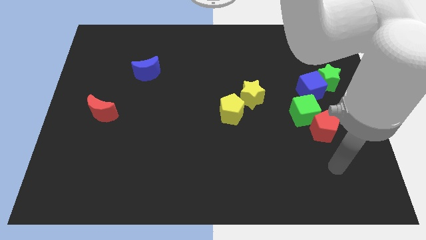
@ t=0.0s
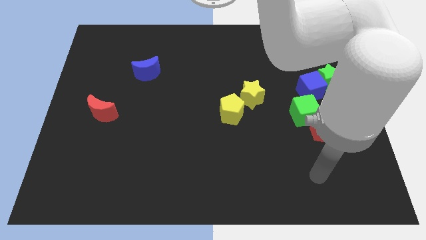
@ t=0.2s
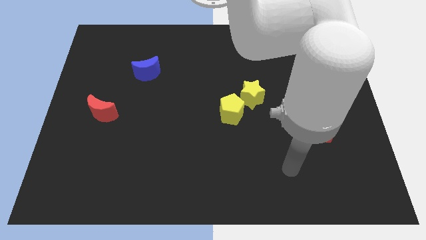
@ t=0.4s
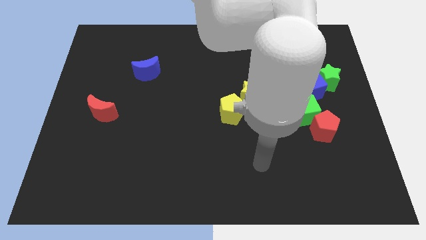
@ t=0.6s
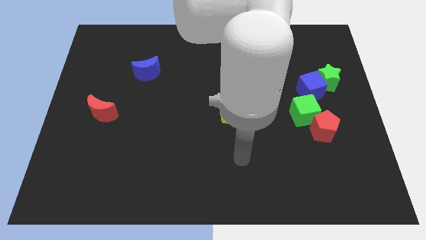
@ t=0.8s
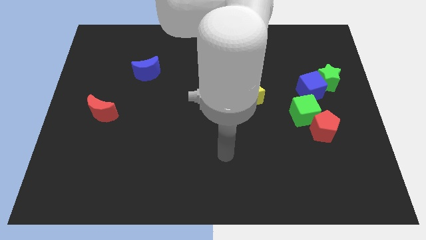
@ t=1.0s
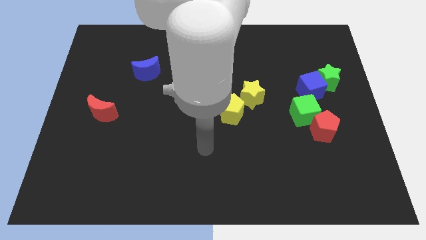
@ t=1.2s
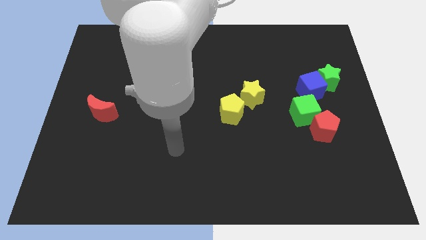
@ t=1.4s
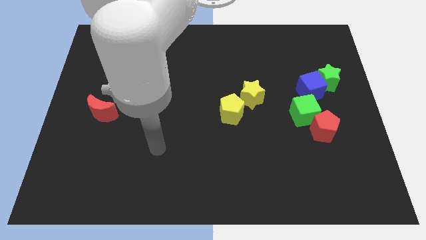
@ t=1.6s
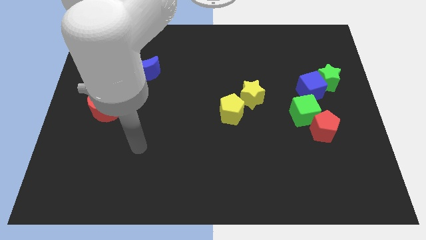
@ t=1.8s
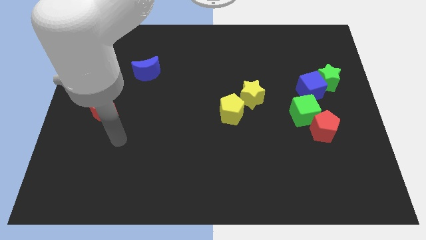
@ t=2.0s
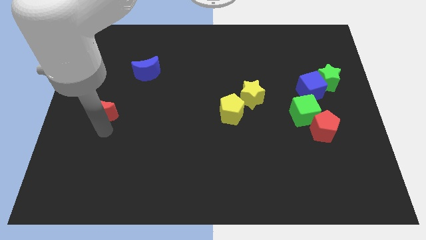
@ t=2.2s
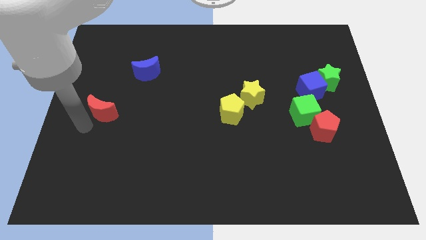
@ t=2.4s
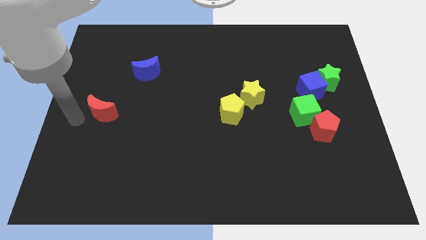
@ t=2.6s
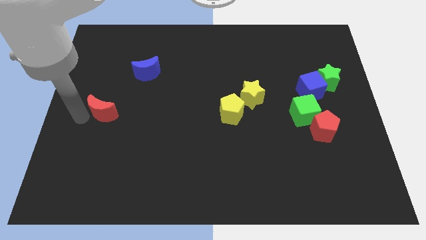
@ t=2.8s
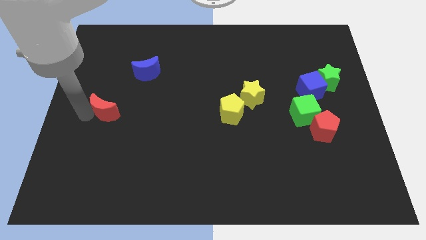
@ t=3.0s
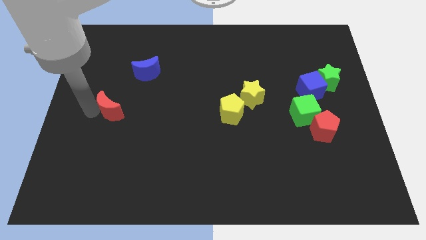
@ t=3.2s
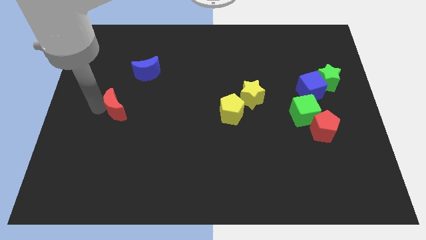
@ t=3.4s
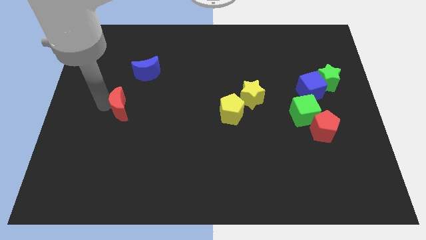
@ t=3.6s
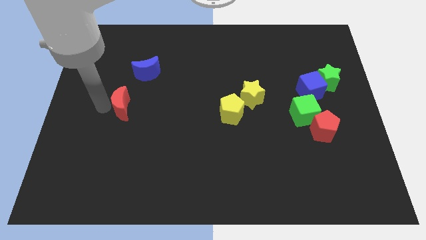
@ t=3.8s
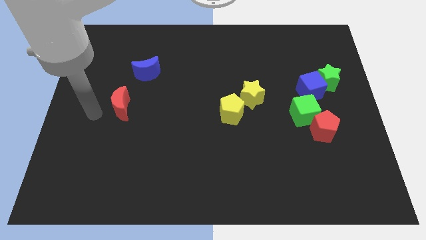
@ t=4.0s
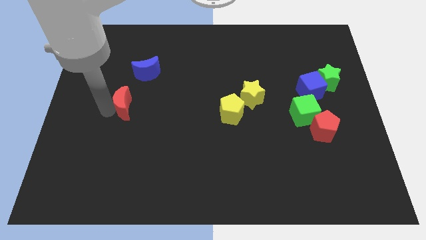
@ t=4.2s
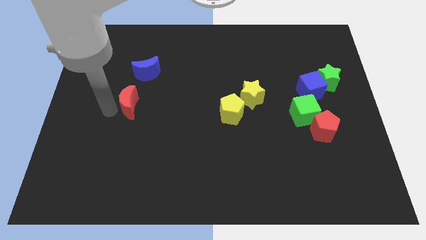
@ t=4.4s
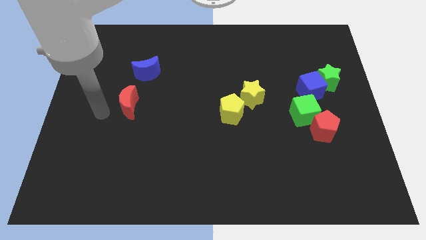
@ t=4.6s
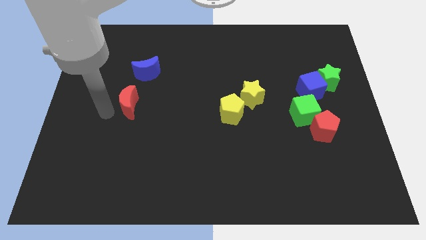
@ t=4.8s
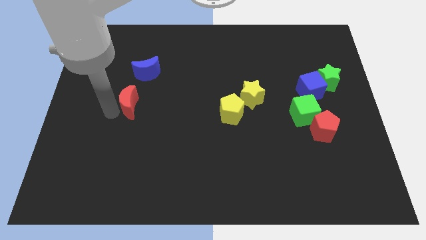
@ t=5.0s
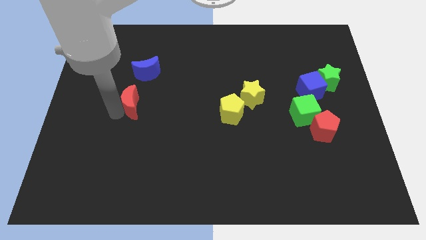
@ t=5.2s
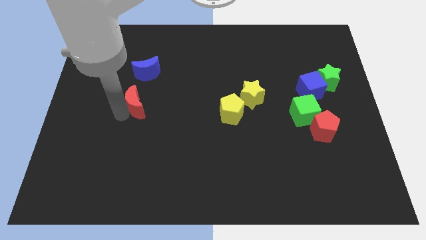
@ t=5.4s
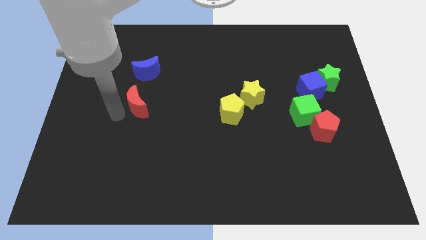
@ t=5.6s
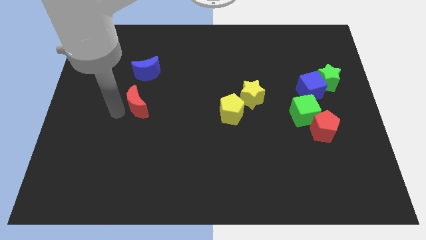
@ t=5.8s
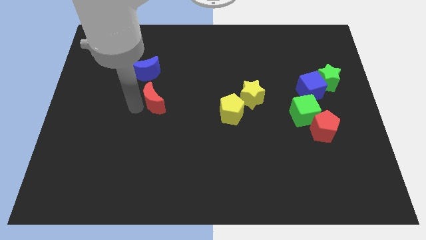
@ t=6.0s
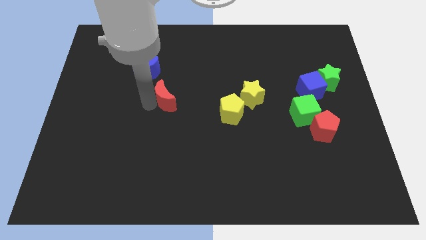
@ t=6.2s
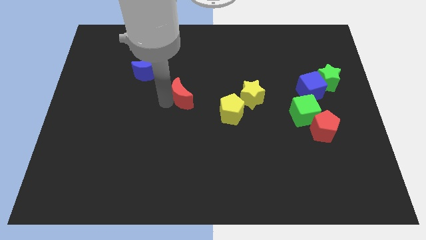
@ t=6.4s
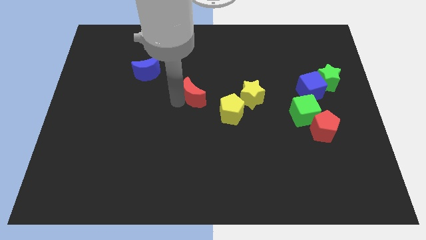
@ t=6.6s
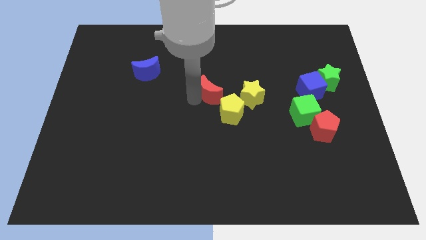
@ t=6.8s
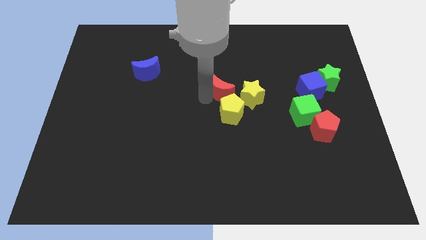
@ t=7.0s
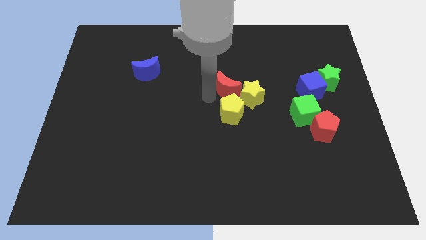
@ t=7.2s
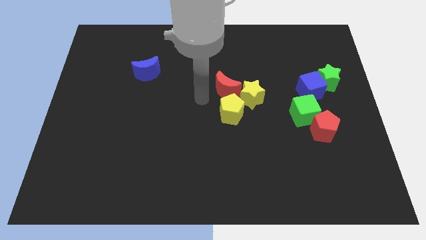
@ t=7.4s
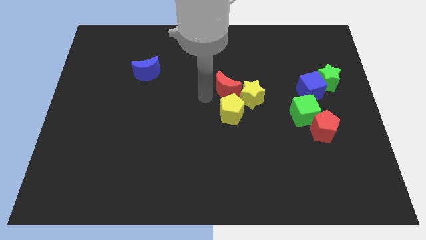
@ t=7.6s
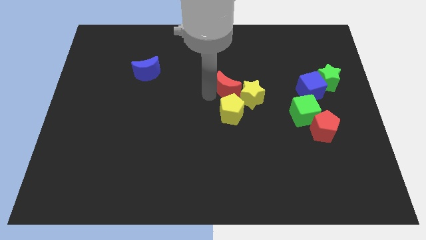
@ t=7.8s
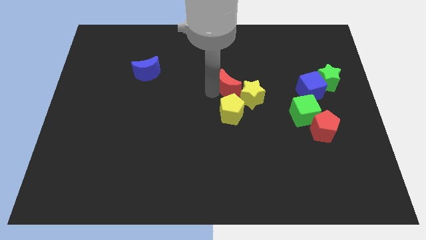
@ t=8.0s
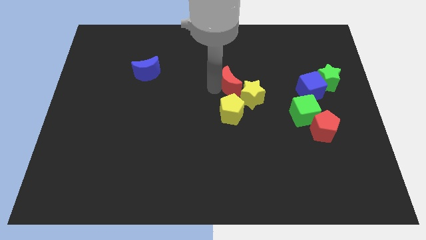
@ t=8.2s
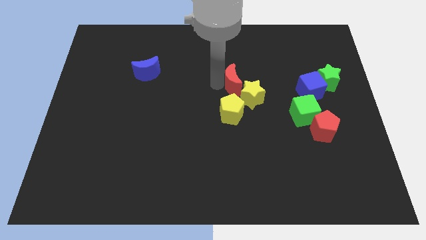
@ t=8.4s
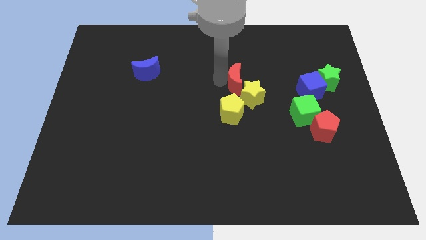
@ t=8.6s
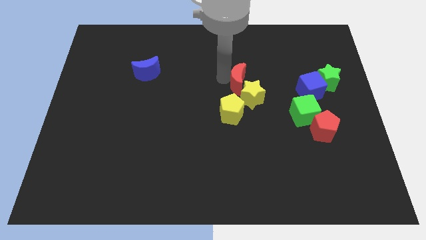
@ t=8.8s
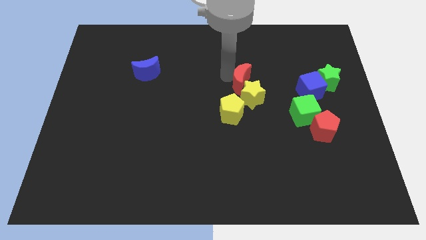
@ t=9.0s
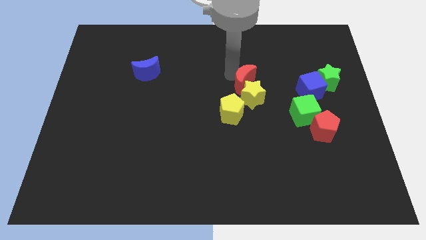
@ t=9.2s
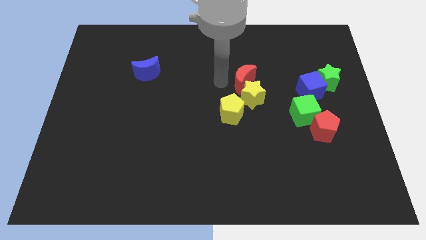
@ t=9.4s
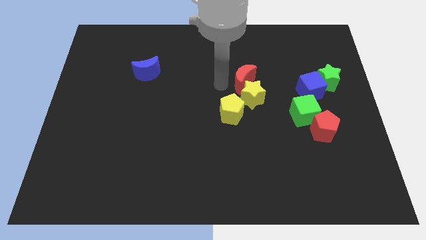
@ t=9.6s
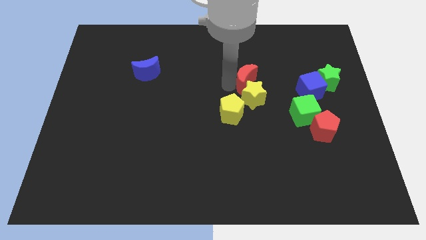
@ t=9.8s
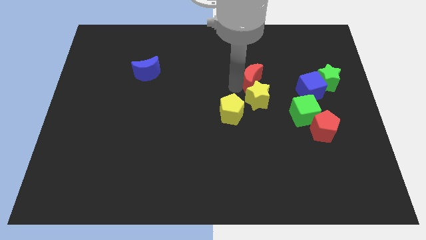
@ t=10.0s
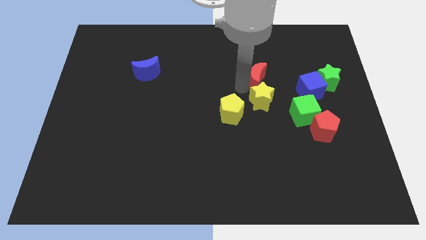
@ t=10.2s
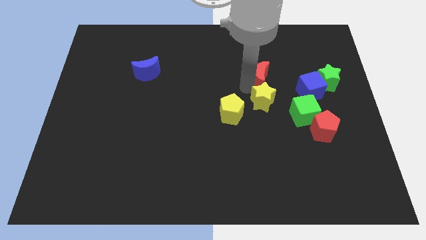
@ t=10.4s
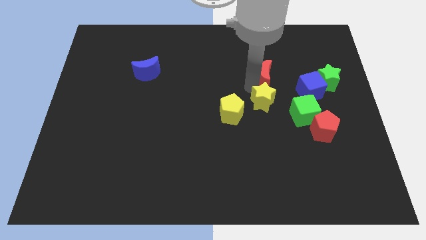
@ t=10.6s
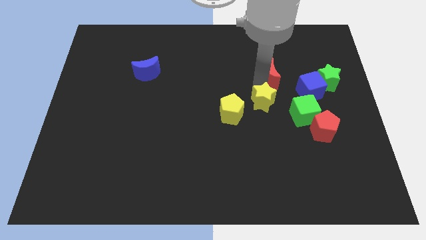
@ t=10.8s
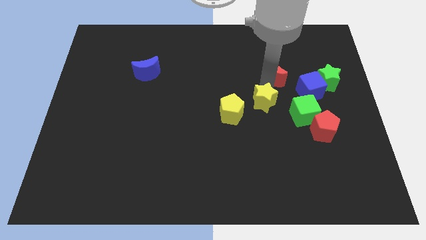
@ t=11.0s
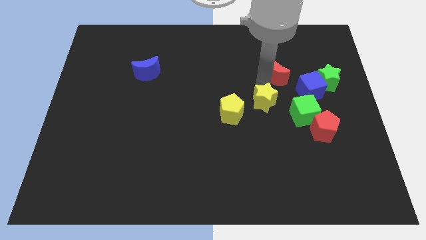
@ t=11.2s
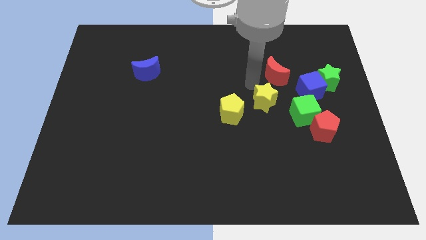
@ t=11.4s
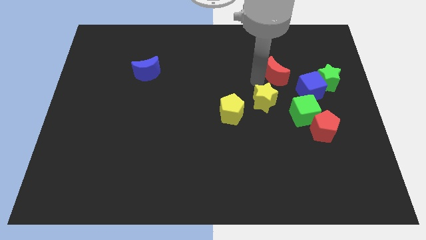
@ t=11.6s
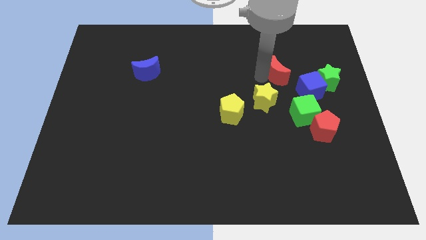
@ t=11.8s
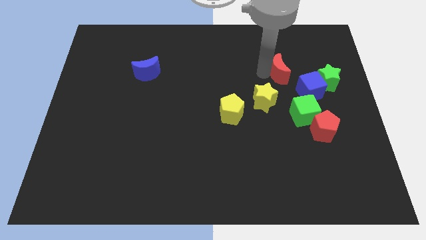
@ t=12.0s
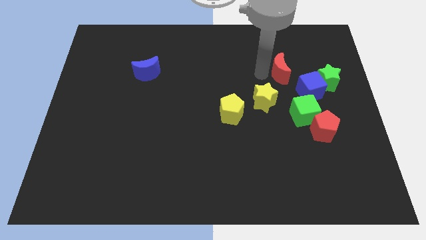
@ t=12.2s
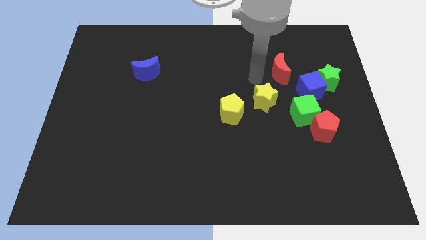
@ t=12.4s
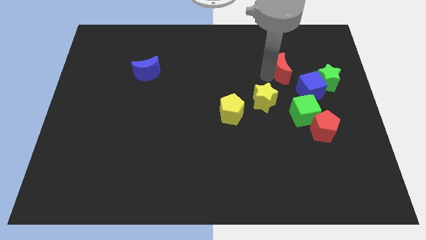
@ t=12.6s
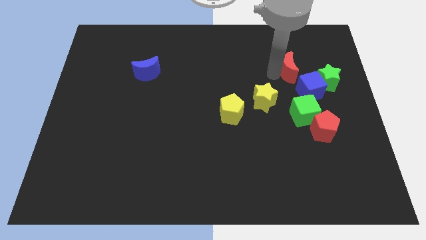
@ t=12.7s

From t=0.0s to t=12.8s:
push the red moon diagonally up and to the left of the green star

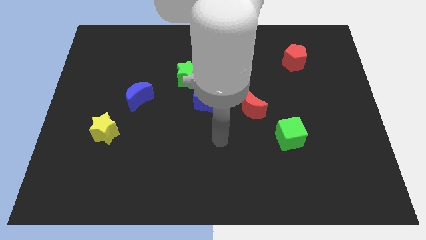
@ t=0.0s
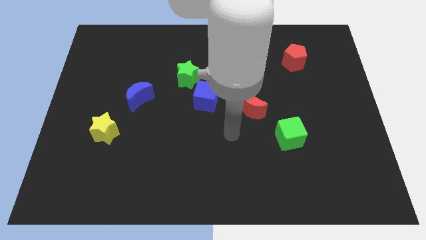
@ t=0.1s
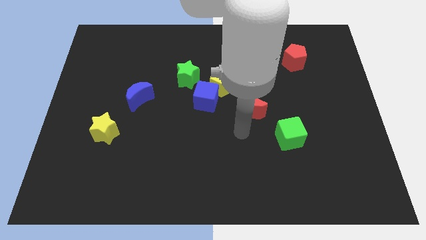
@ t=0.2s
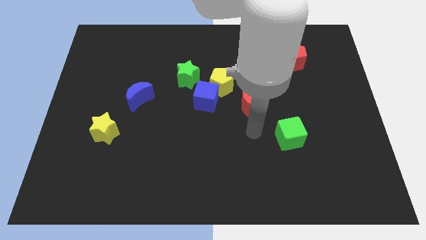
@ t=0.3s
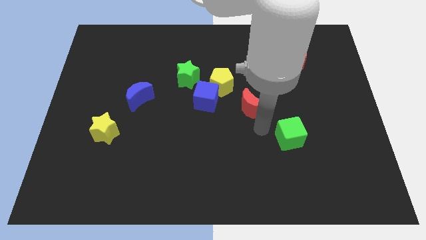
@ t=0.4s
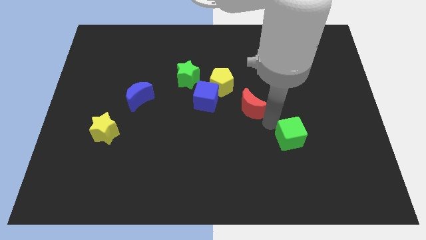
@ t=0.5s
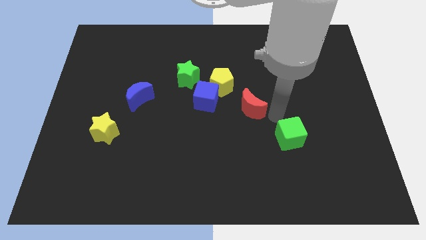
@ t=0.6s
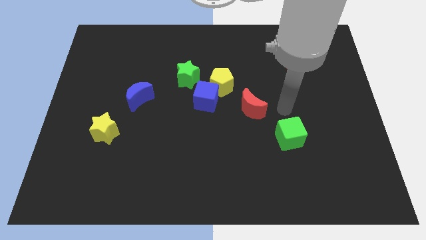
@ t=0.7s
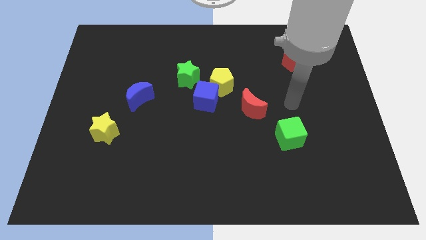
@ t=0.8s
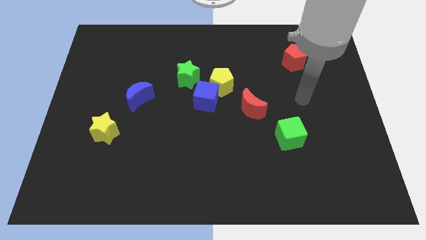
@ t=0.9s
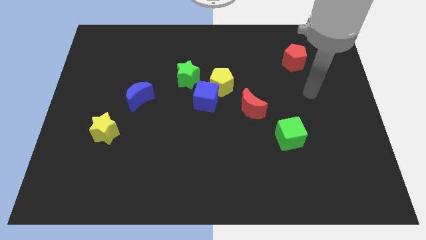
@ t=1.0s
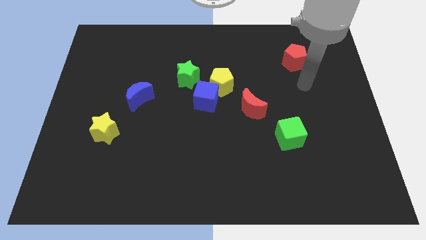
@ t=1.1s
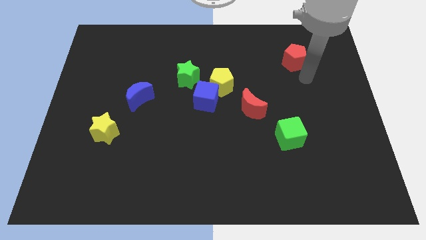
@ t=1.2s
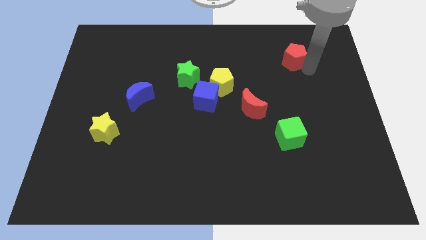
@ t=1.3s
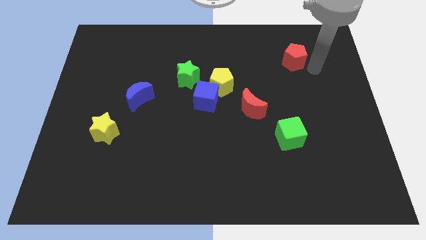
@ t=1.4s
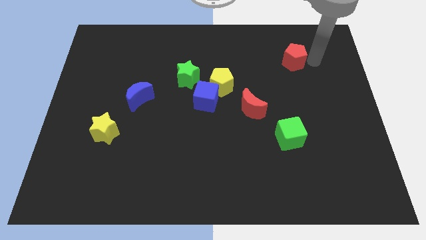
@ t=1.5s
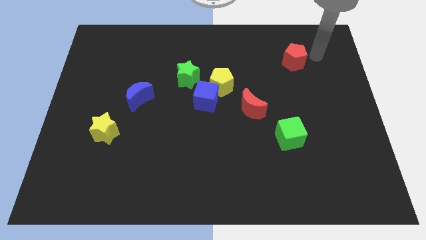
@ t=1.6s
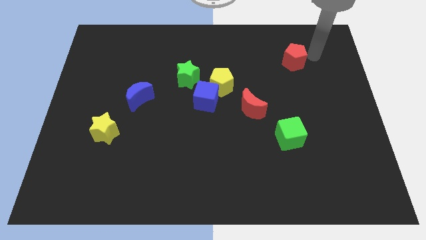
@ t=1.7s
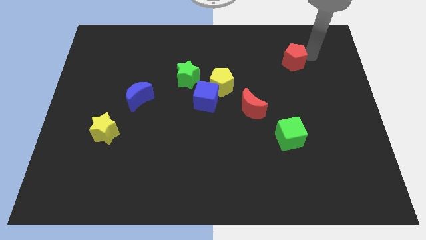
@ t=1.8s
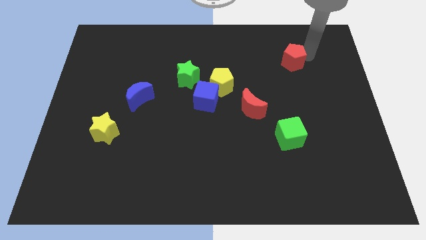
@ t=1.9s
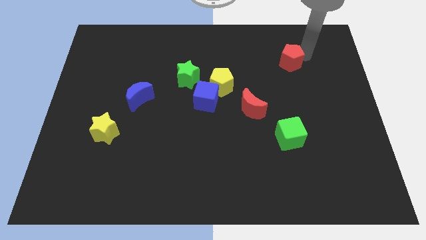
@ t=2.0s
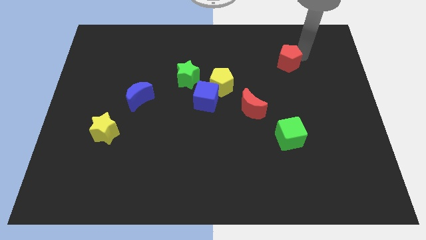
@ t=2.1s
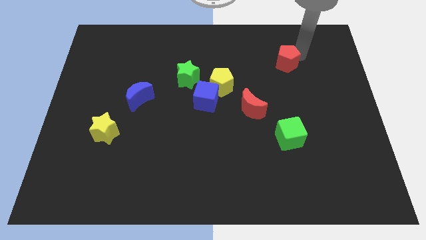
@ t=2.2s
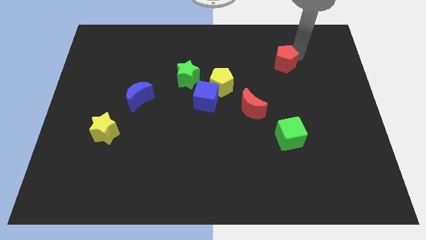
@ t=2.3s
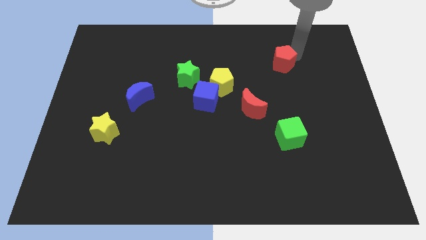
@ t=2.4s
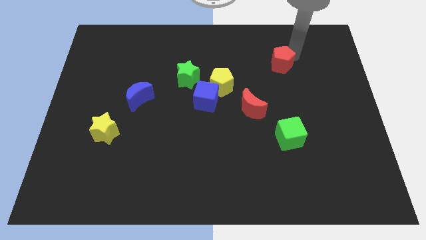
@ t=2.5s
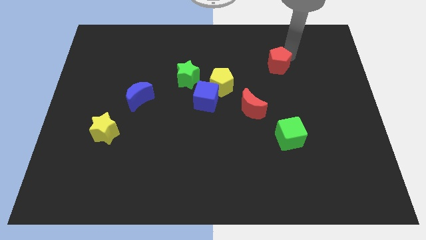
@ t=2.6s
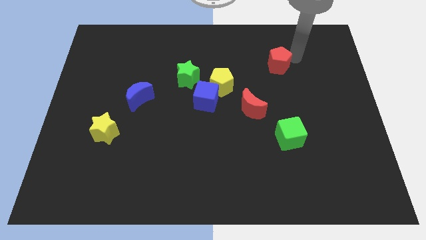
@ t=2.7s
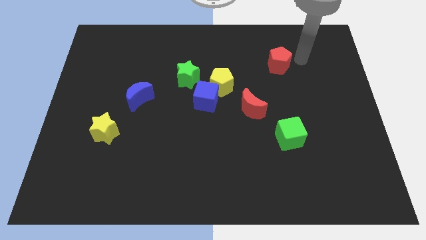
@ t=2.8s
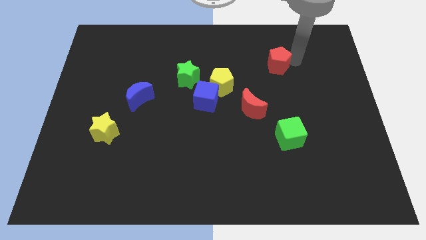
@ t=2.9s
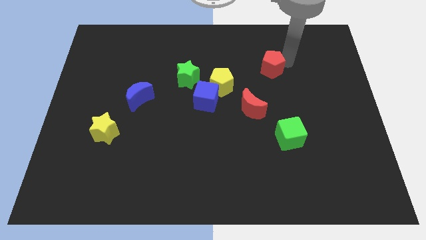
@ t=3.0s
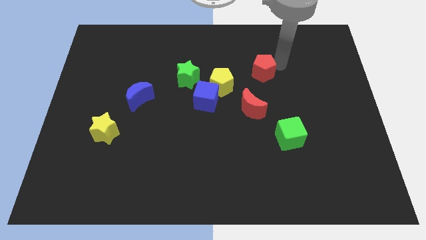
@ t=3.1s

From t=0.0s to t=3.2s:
slide the red pentagon diagonally up and to the right of the yellow pentagon
